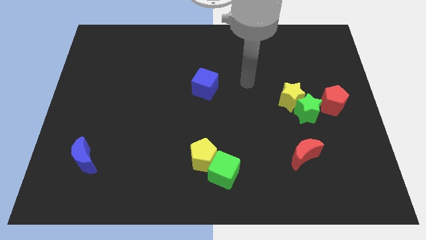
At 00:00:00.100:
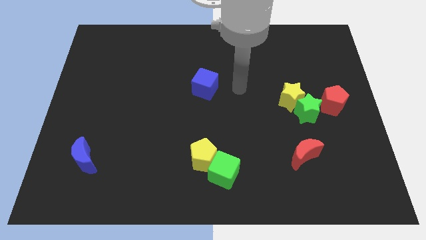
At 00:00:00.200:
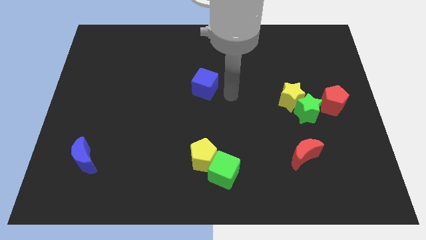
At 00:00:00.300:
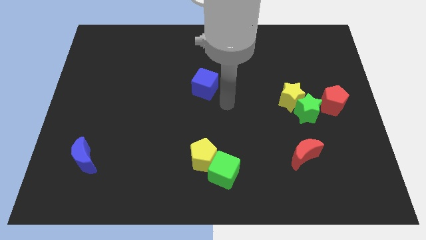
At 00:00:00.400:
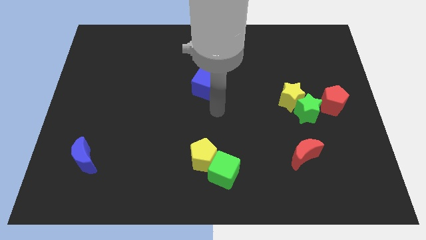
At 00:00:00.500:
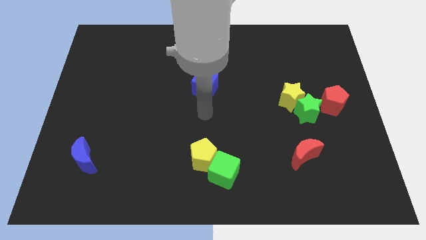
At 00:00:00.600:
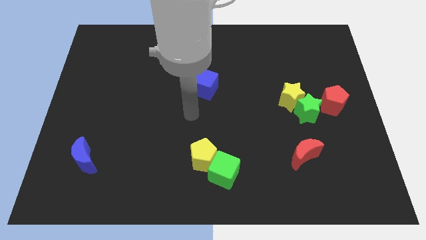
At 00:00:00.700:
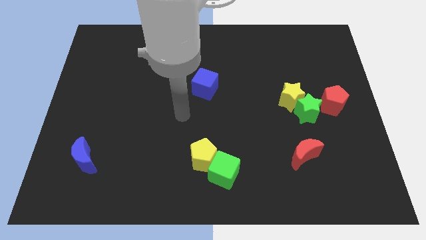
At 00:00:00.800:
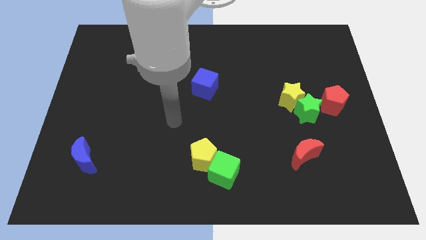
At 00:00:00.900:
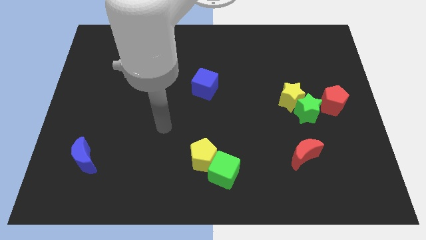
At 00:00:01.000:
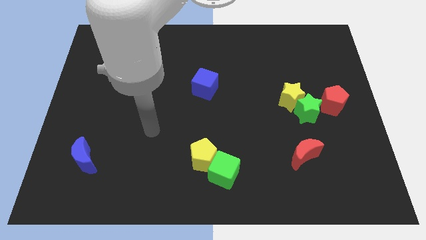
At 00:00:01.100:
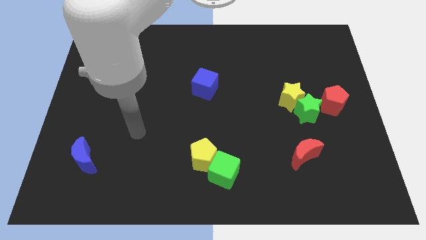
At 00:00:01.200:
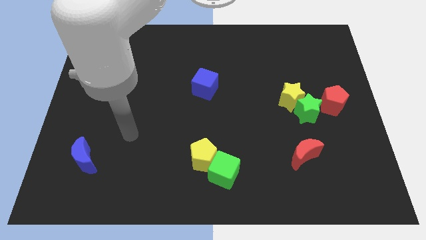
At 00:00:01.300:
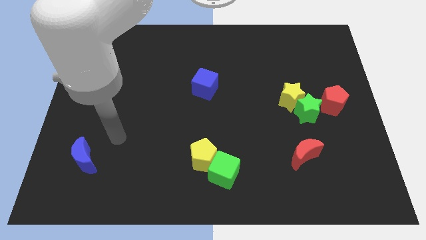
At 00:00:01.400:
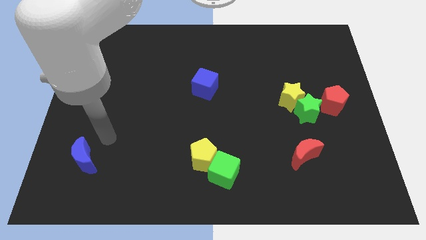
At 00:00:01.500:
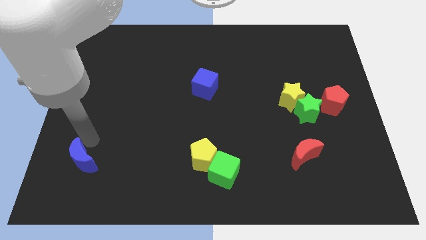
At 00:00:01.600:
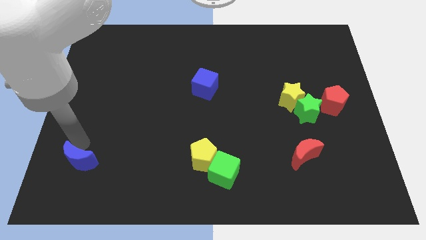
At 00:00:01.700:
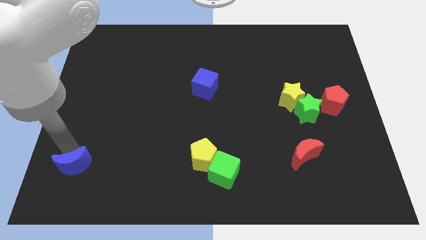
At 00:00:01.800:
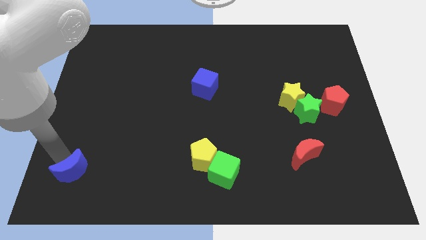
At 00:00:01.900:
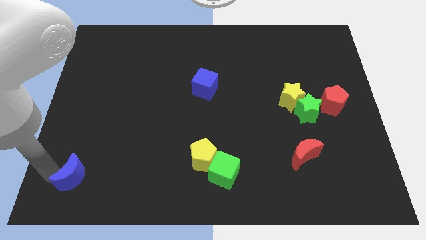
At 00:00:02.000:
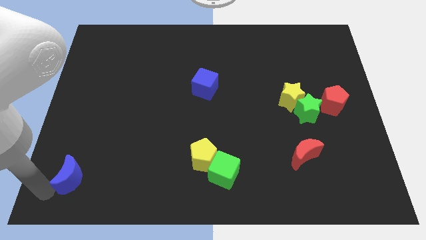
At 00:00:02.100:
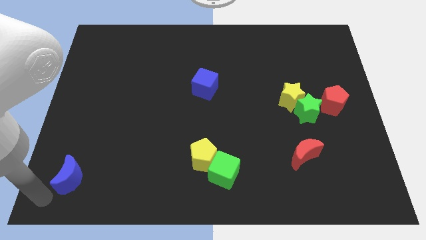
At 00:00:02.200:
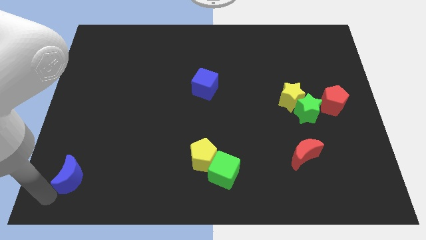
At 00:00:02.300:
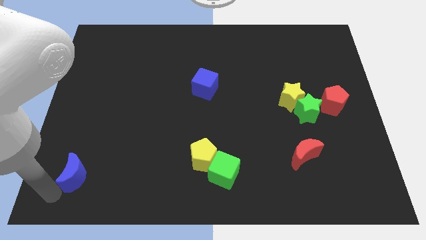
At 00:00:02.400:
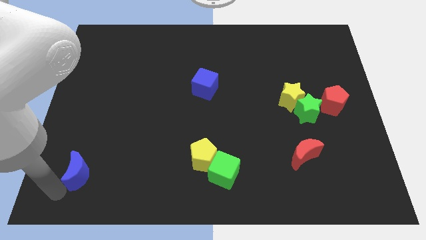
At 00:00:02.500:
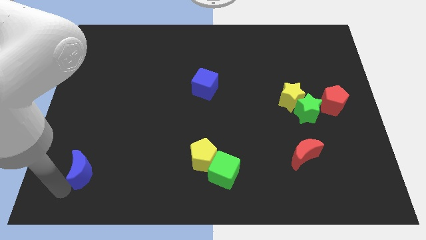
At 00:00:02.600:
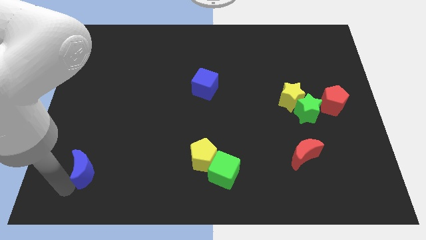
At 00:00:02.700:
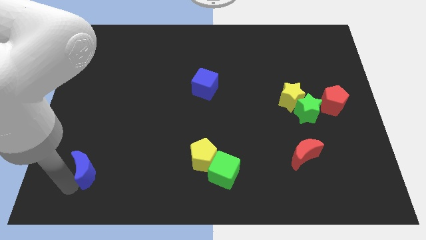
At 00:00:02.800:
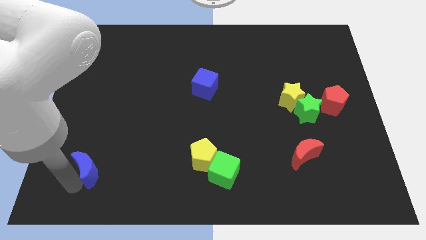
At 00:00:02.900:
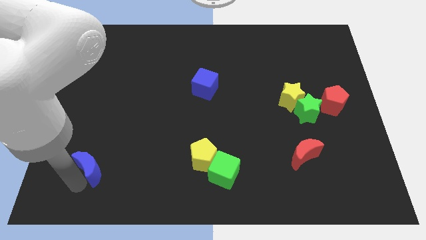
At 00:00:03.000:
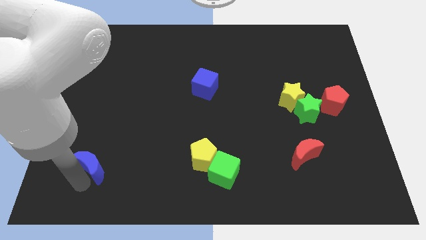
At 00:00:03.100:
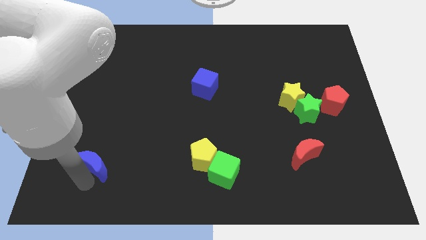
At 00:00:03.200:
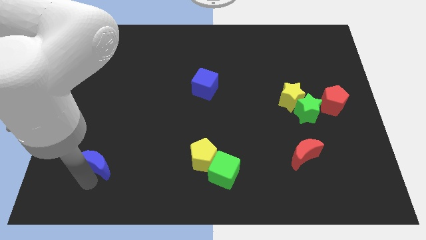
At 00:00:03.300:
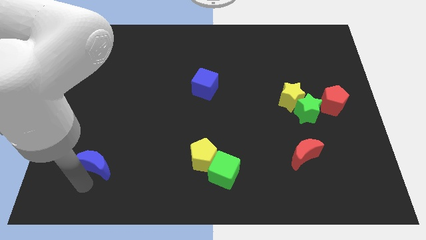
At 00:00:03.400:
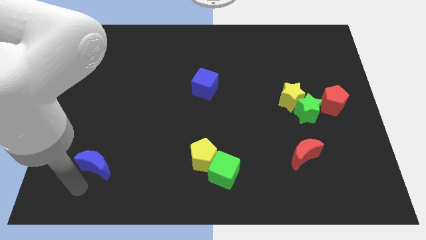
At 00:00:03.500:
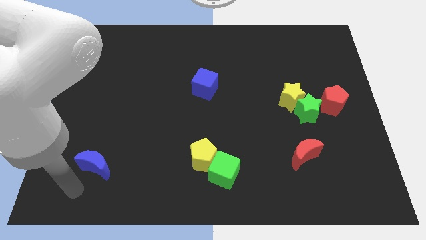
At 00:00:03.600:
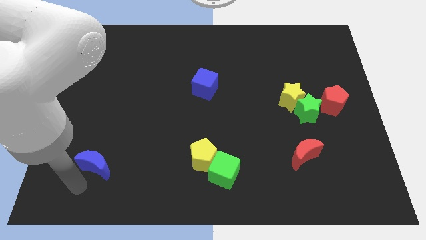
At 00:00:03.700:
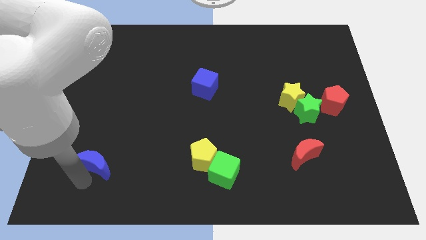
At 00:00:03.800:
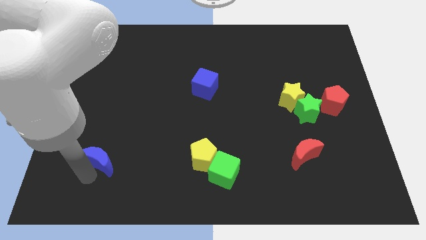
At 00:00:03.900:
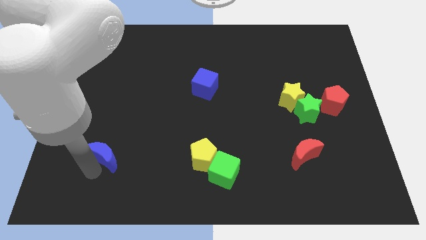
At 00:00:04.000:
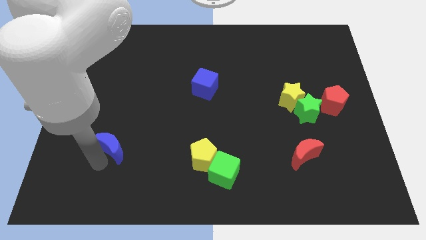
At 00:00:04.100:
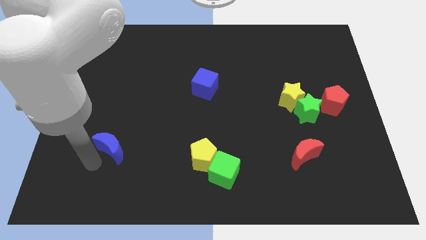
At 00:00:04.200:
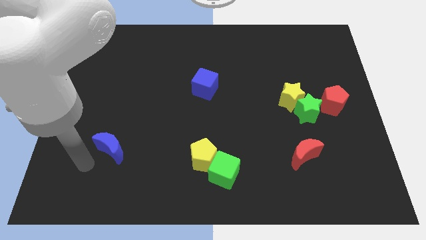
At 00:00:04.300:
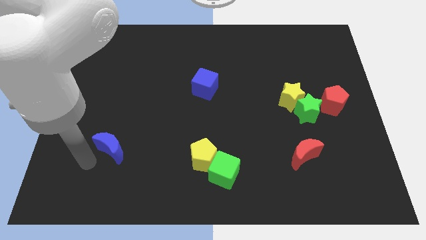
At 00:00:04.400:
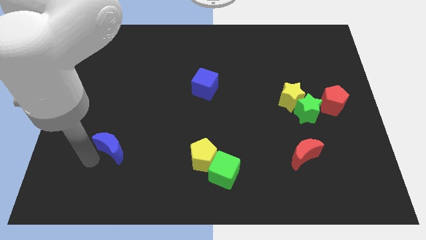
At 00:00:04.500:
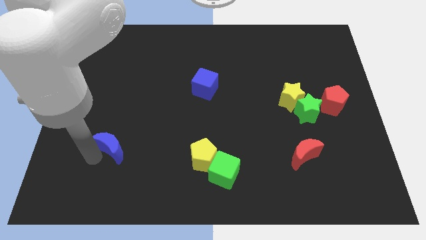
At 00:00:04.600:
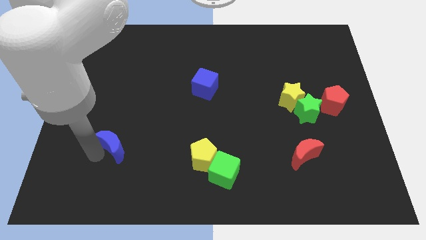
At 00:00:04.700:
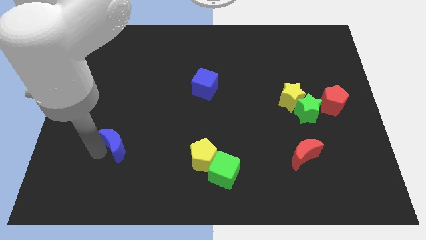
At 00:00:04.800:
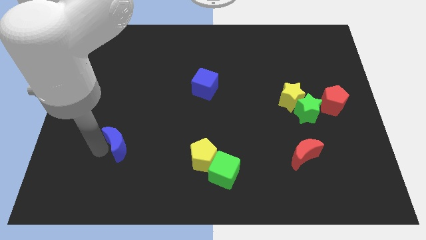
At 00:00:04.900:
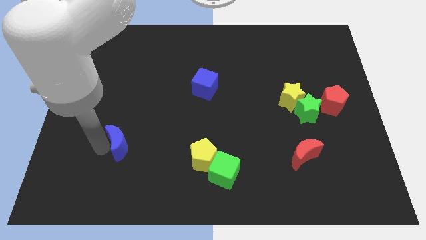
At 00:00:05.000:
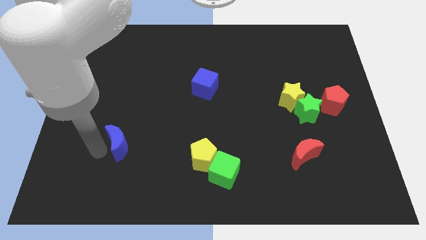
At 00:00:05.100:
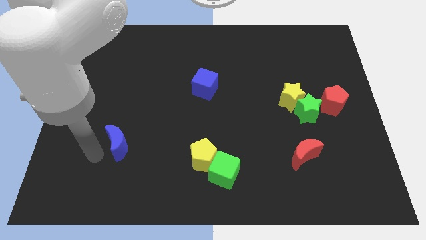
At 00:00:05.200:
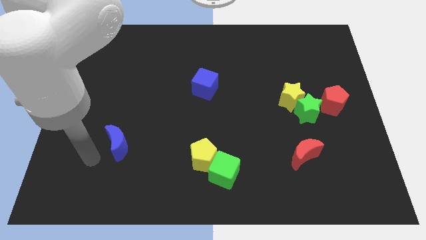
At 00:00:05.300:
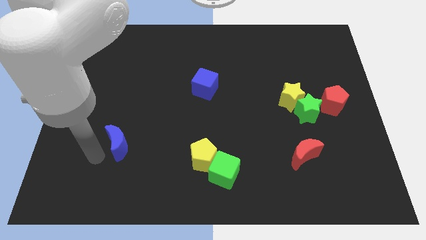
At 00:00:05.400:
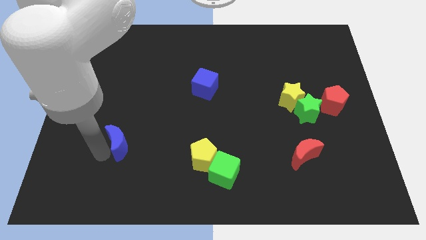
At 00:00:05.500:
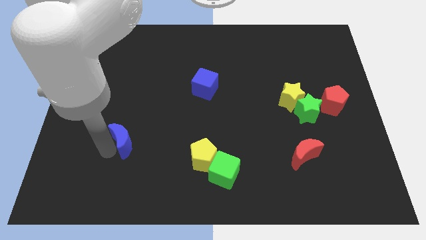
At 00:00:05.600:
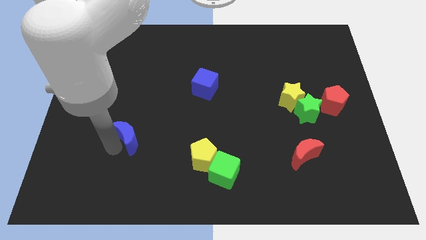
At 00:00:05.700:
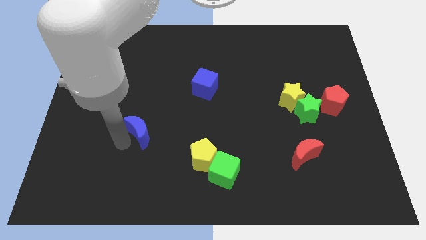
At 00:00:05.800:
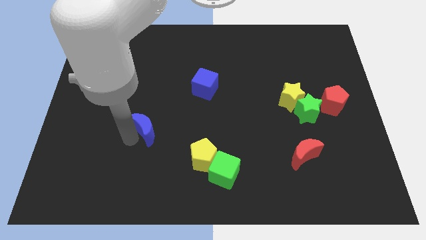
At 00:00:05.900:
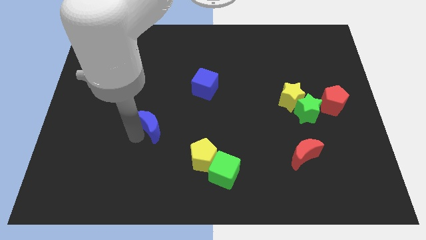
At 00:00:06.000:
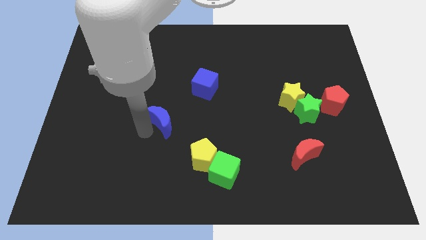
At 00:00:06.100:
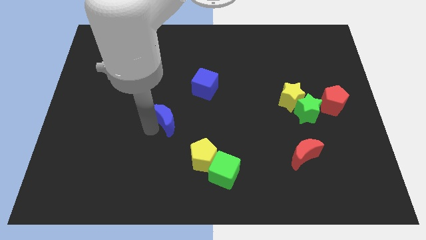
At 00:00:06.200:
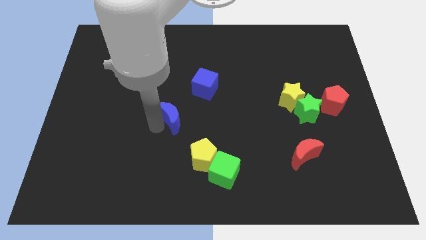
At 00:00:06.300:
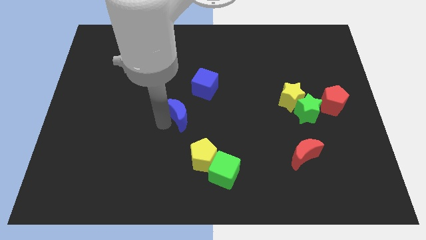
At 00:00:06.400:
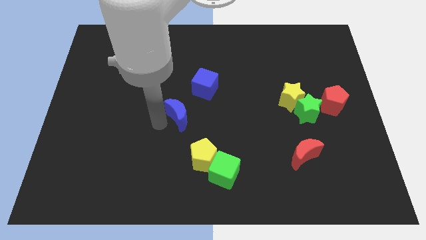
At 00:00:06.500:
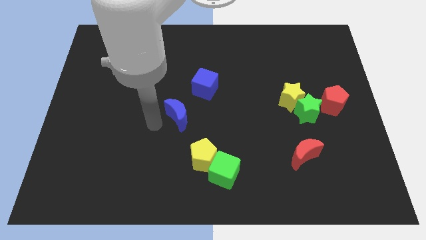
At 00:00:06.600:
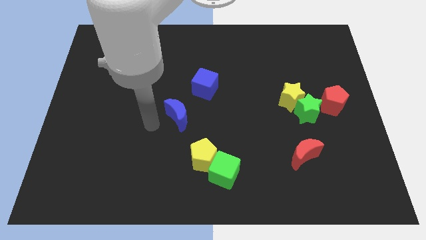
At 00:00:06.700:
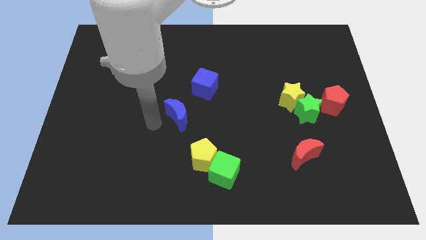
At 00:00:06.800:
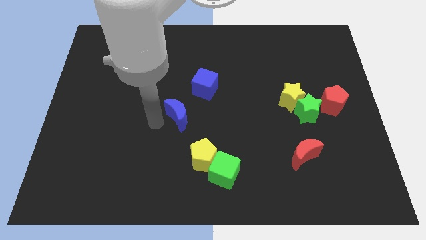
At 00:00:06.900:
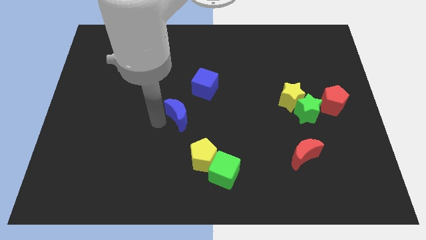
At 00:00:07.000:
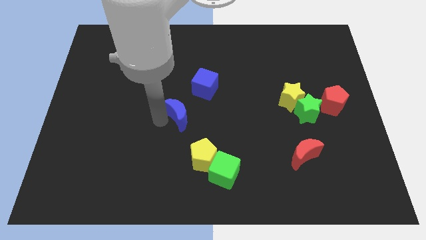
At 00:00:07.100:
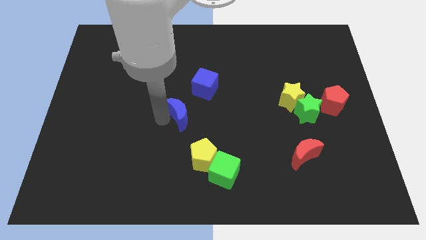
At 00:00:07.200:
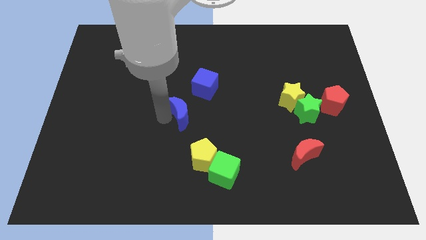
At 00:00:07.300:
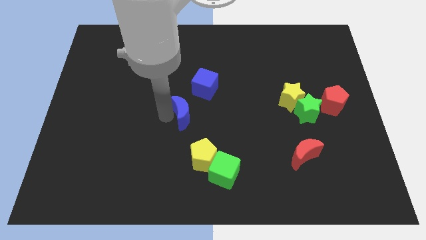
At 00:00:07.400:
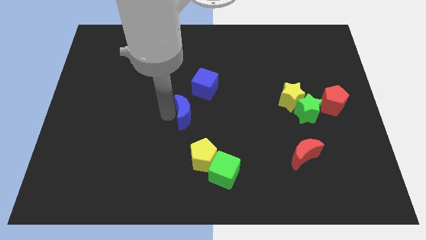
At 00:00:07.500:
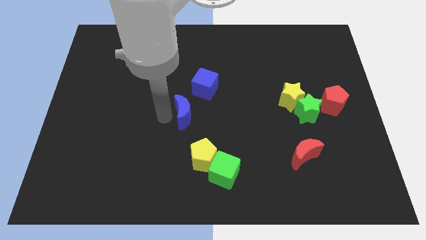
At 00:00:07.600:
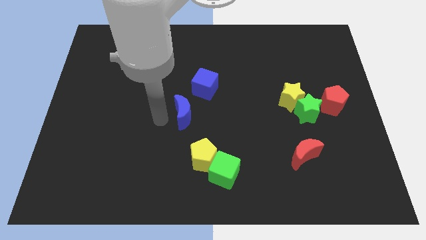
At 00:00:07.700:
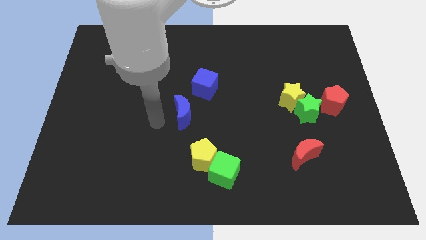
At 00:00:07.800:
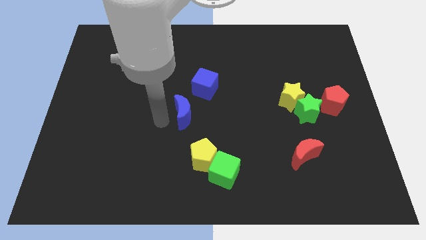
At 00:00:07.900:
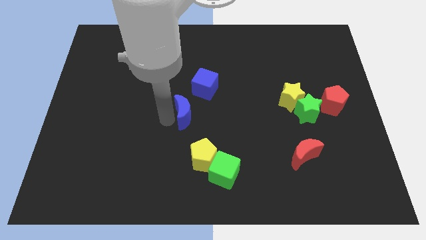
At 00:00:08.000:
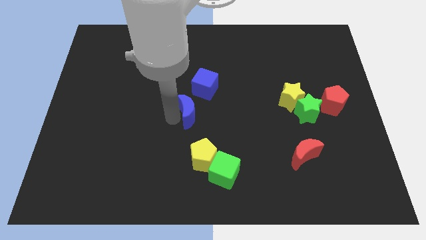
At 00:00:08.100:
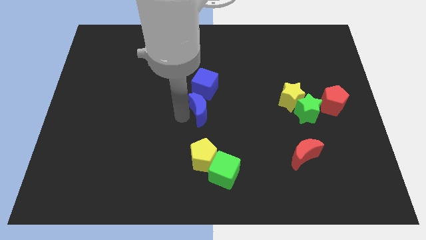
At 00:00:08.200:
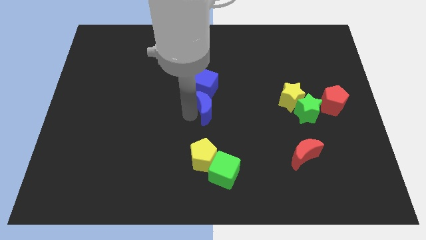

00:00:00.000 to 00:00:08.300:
slide the blue moon to the bottom right of the blue cube
